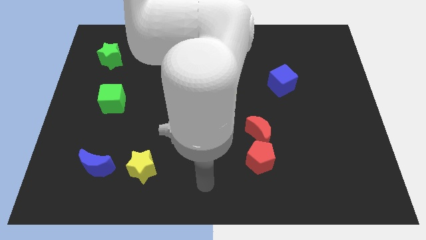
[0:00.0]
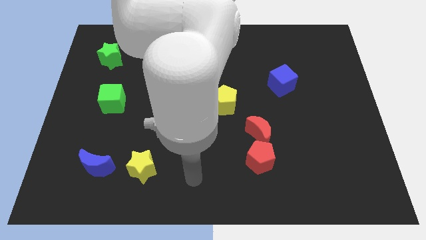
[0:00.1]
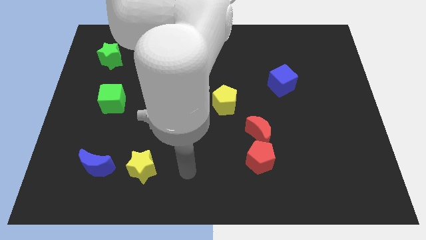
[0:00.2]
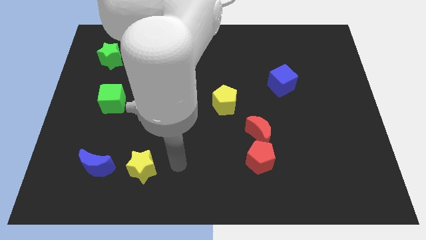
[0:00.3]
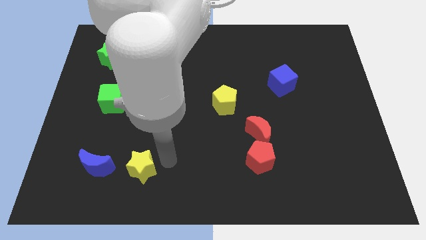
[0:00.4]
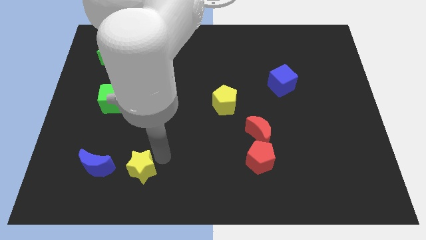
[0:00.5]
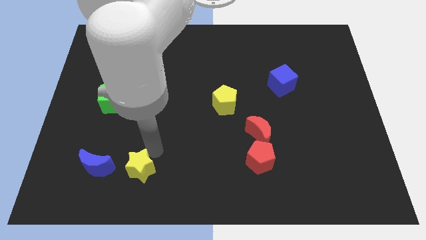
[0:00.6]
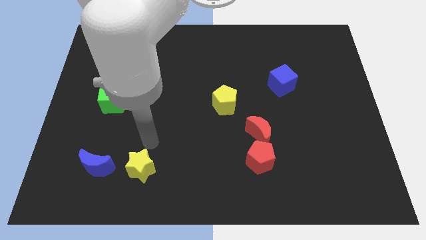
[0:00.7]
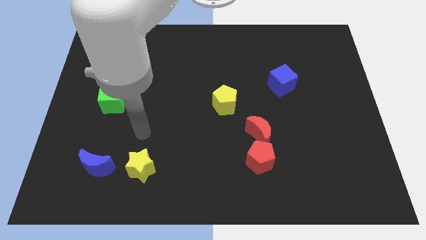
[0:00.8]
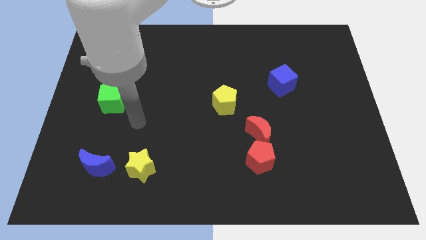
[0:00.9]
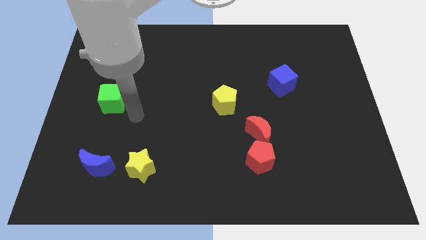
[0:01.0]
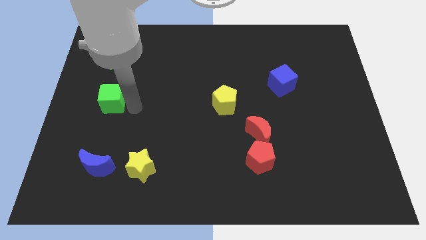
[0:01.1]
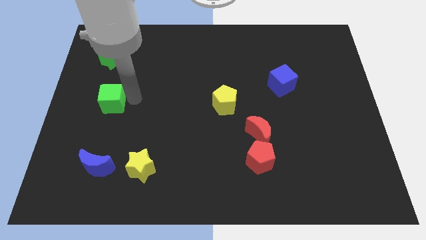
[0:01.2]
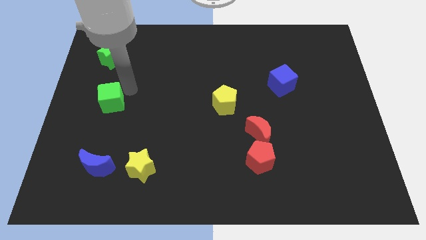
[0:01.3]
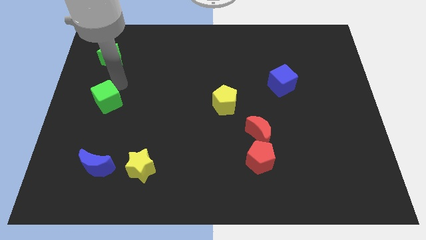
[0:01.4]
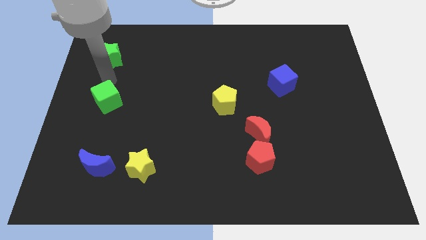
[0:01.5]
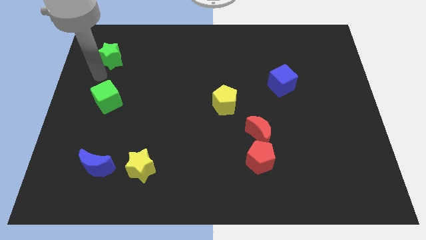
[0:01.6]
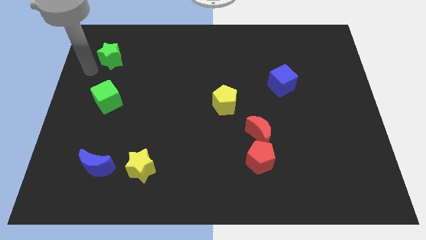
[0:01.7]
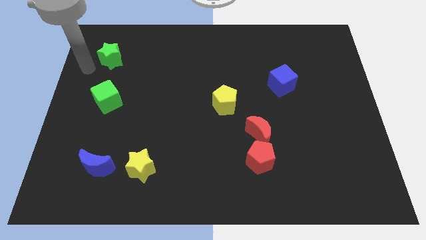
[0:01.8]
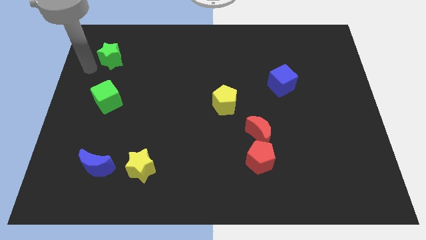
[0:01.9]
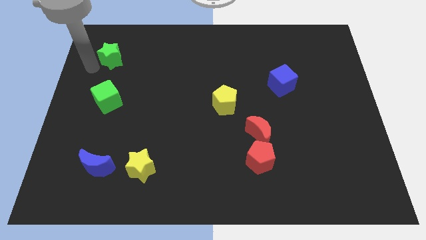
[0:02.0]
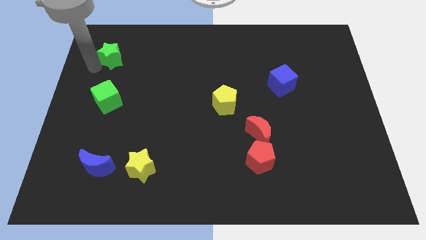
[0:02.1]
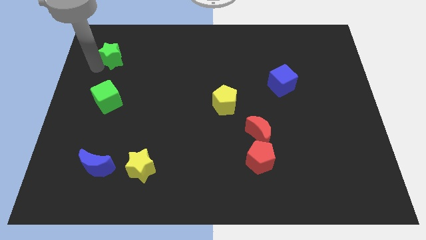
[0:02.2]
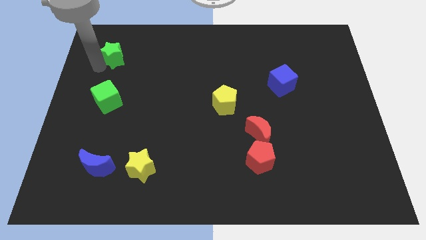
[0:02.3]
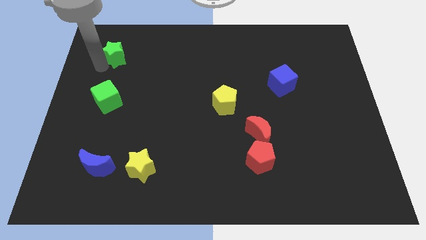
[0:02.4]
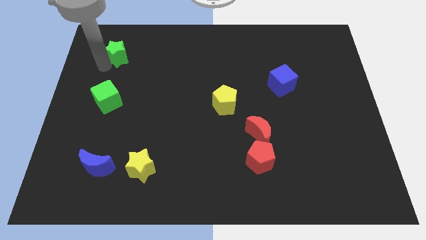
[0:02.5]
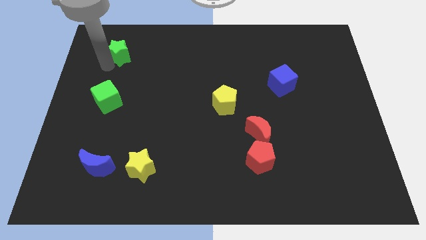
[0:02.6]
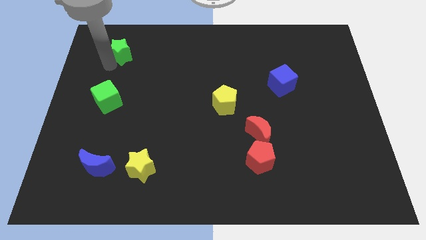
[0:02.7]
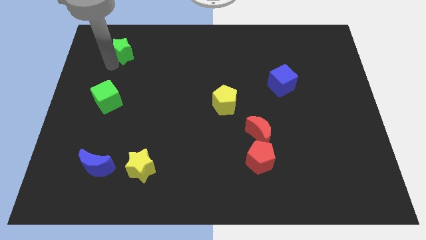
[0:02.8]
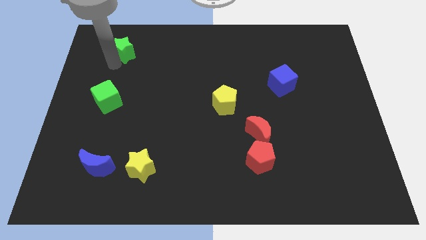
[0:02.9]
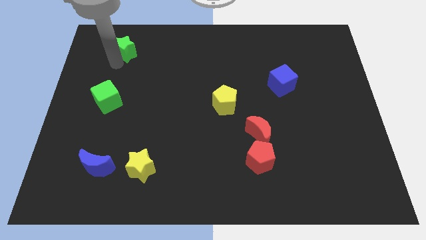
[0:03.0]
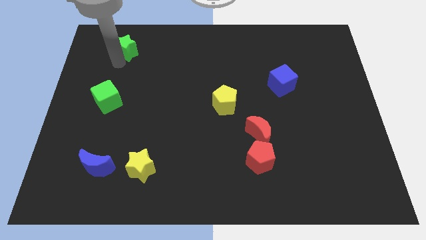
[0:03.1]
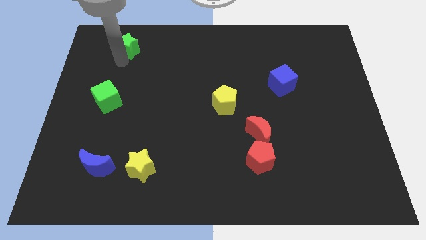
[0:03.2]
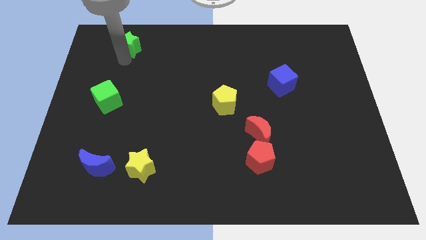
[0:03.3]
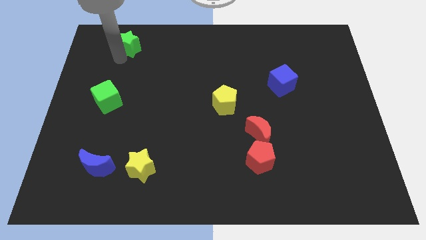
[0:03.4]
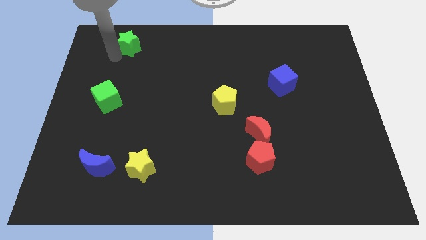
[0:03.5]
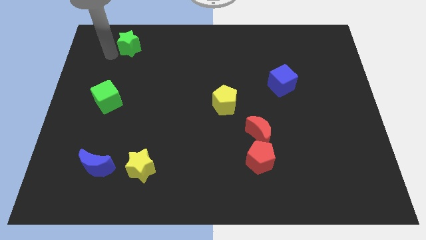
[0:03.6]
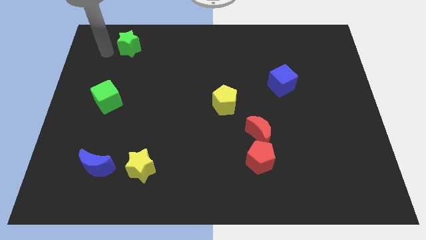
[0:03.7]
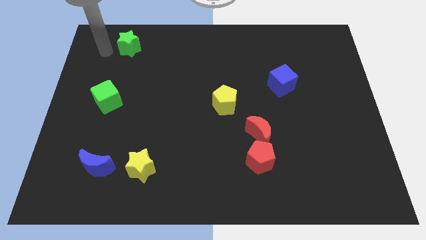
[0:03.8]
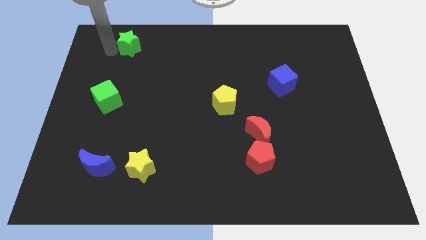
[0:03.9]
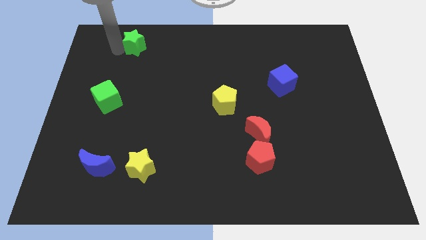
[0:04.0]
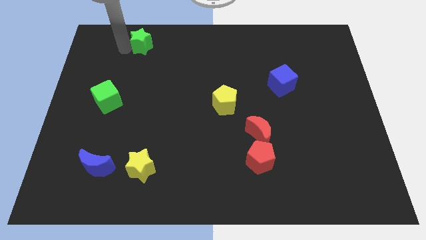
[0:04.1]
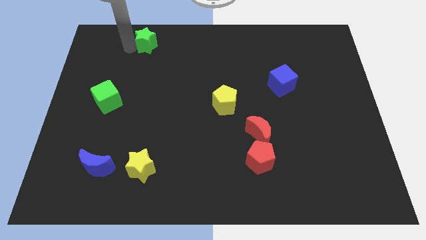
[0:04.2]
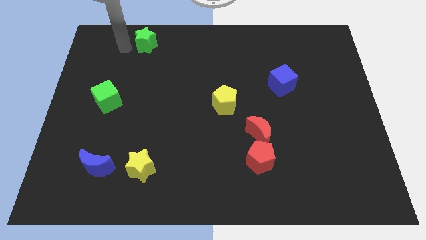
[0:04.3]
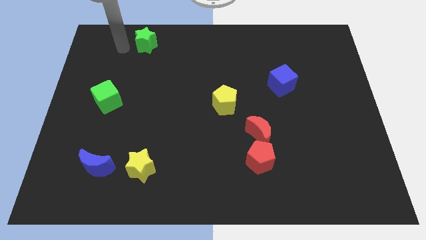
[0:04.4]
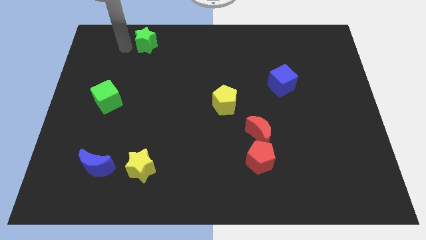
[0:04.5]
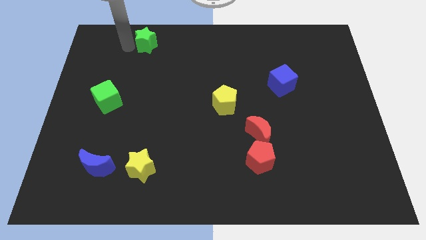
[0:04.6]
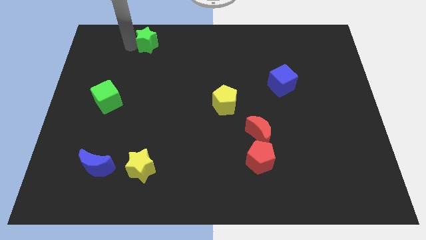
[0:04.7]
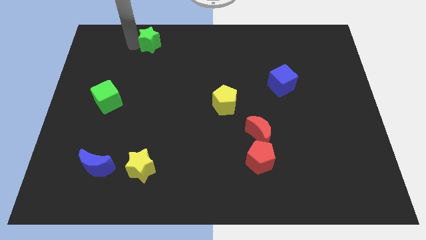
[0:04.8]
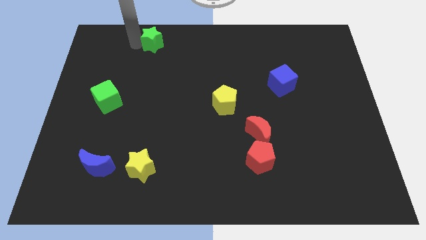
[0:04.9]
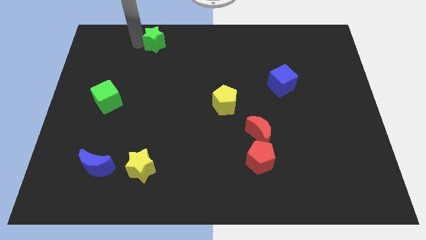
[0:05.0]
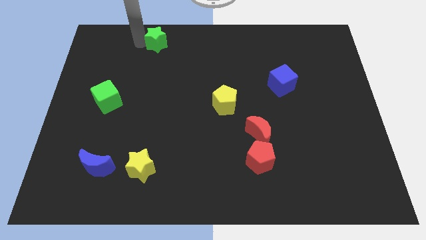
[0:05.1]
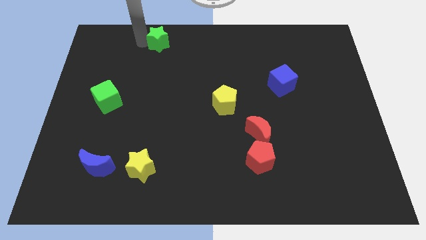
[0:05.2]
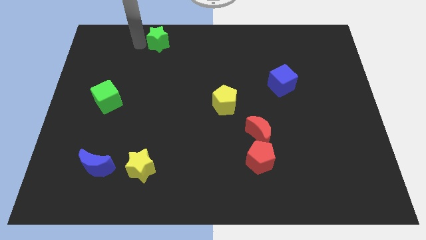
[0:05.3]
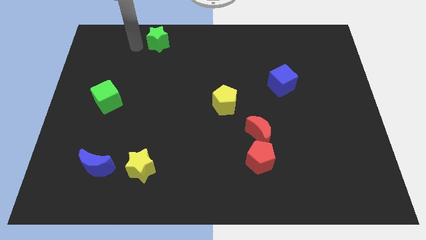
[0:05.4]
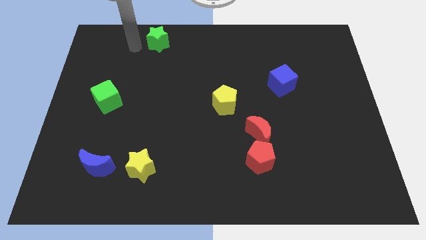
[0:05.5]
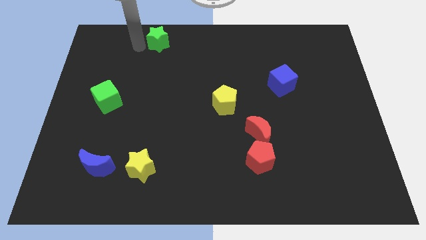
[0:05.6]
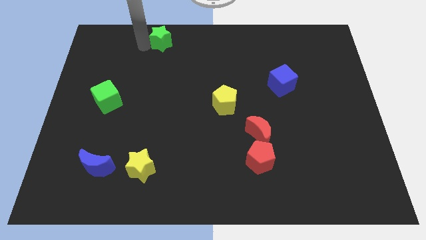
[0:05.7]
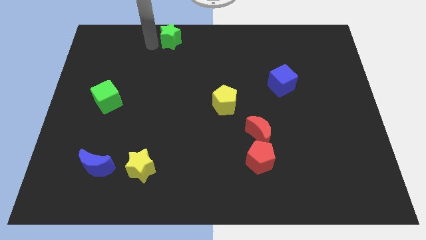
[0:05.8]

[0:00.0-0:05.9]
slide the green star to the top
